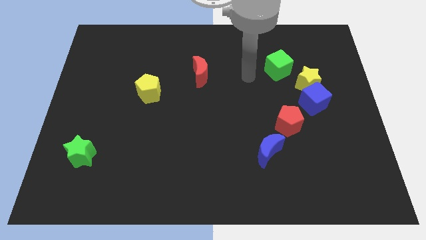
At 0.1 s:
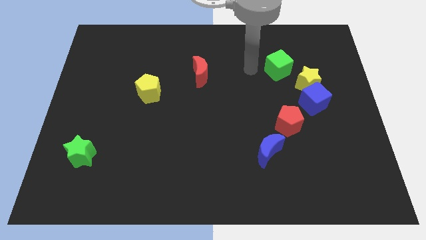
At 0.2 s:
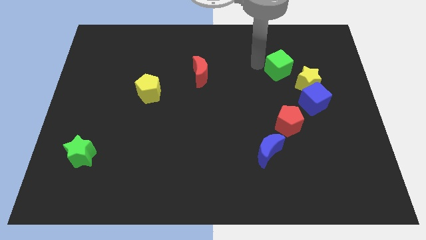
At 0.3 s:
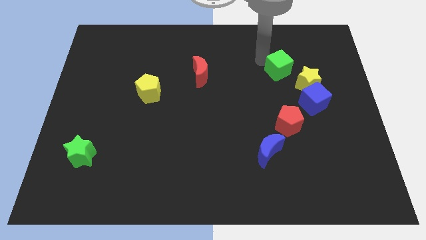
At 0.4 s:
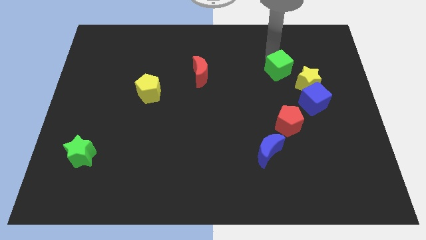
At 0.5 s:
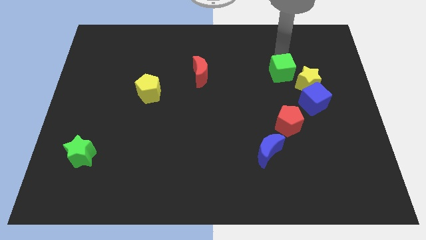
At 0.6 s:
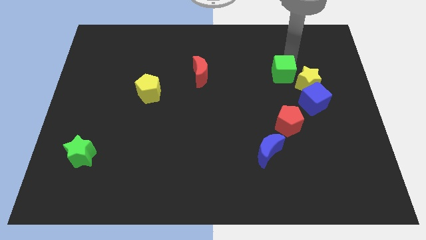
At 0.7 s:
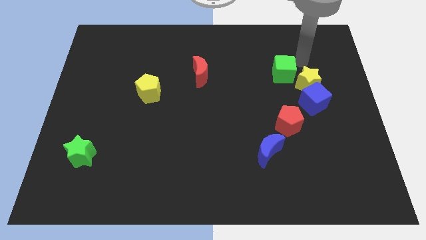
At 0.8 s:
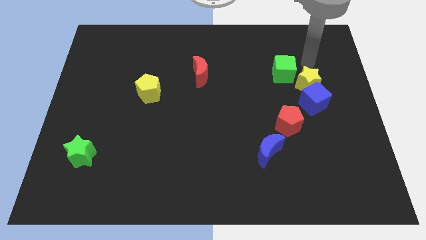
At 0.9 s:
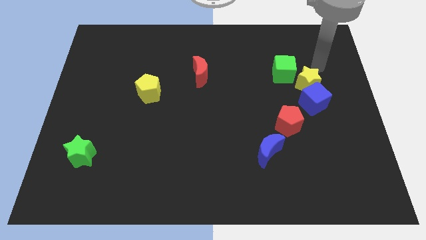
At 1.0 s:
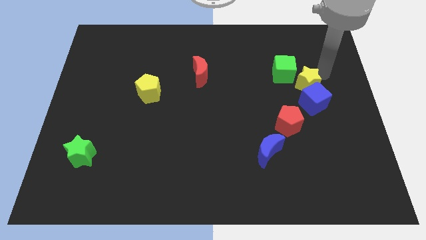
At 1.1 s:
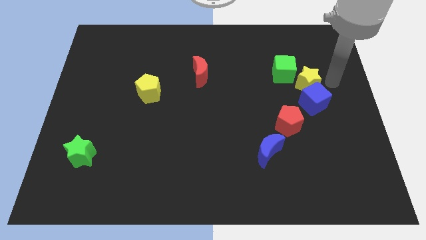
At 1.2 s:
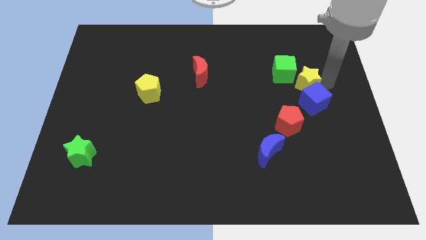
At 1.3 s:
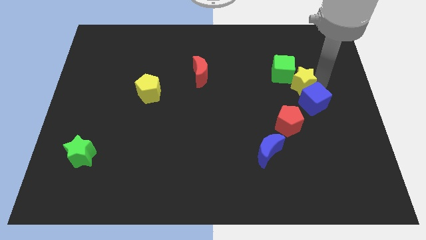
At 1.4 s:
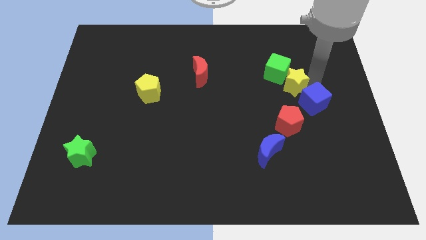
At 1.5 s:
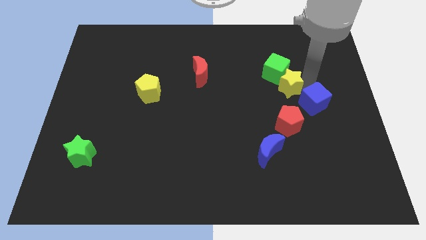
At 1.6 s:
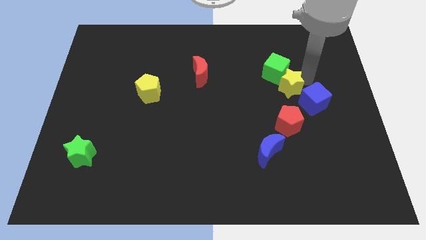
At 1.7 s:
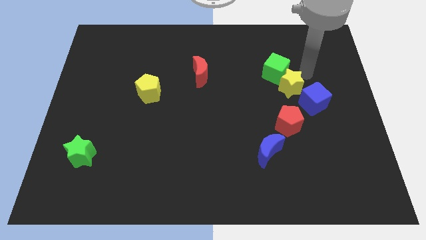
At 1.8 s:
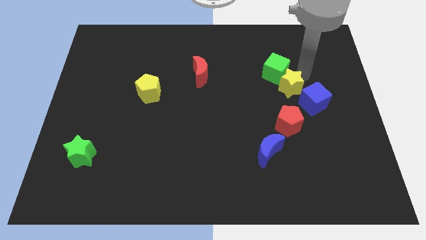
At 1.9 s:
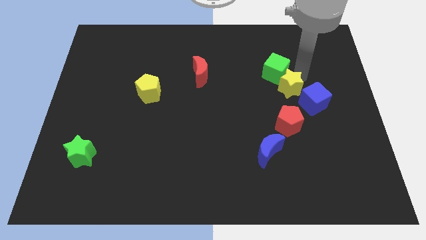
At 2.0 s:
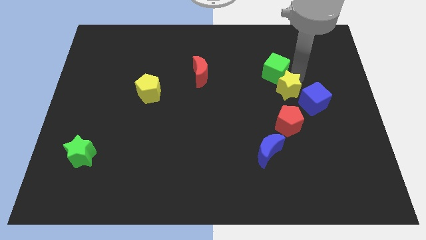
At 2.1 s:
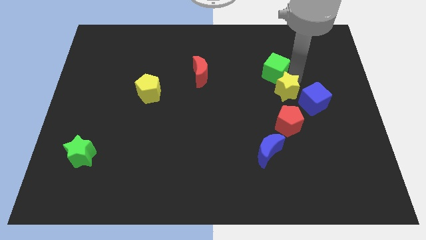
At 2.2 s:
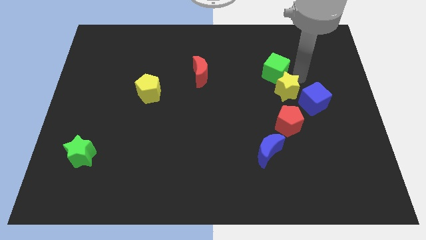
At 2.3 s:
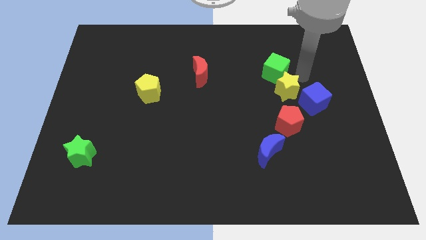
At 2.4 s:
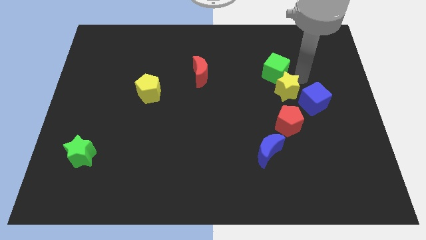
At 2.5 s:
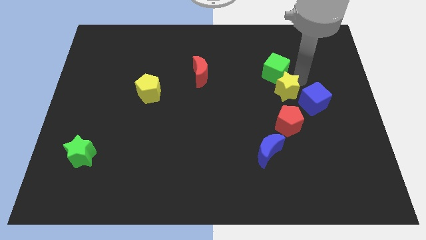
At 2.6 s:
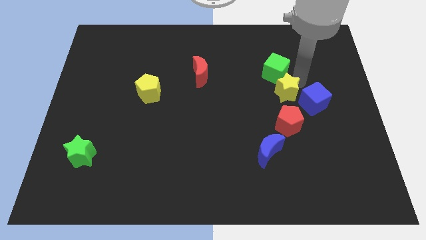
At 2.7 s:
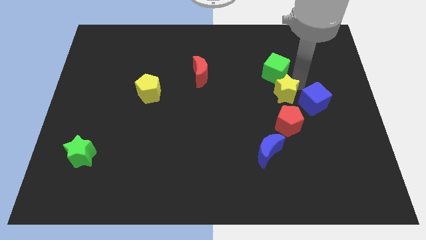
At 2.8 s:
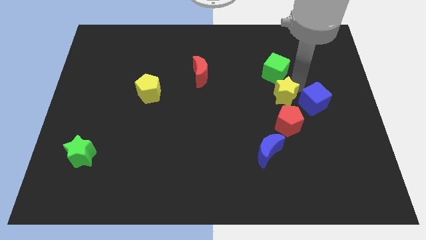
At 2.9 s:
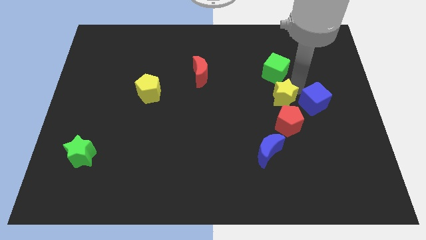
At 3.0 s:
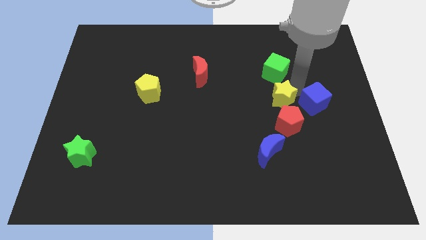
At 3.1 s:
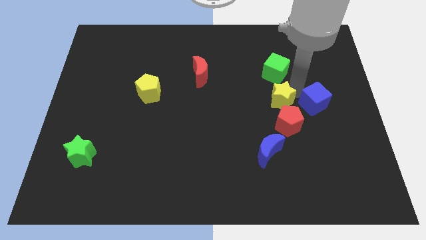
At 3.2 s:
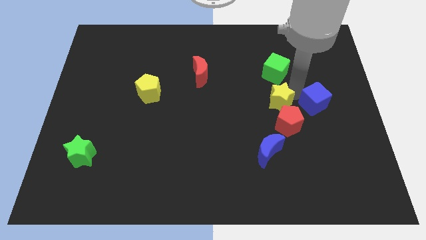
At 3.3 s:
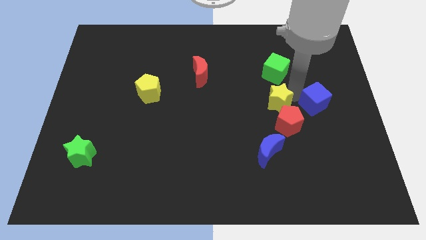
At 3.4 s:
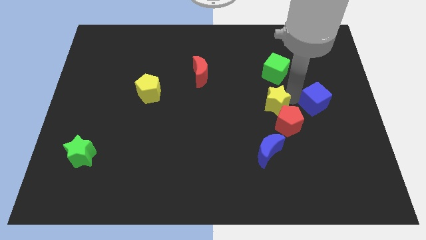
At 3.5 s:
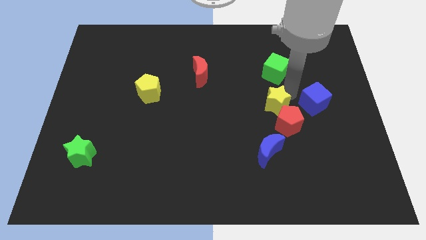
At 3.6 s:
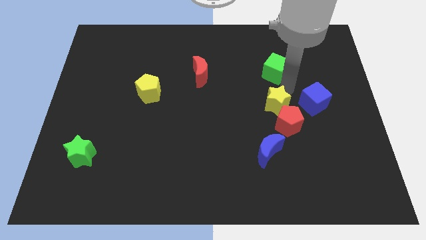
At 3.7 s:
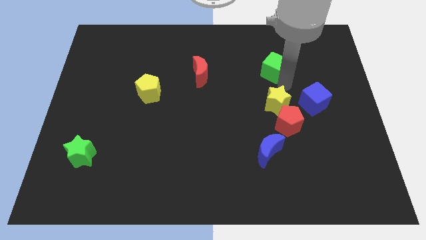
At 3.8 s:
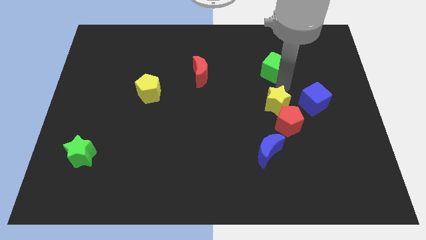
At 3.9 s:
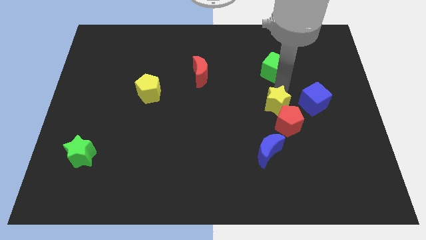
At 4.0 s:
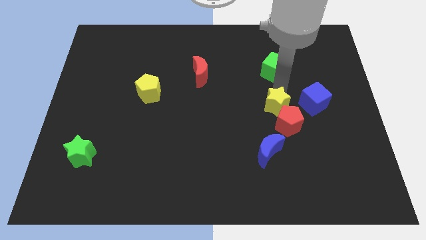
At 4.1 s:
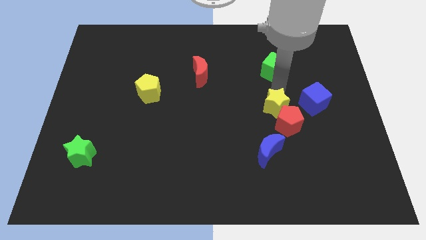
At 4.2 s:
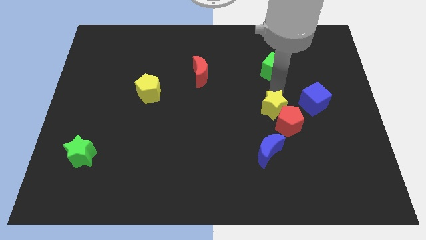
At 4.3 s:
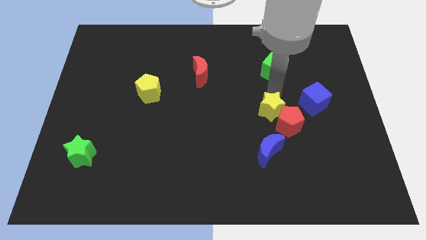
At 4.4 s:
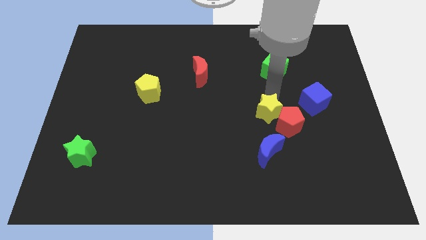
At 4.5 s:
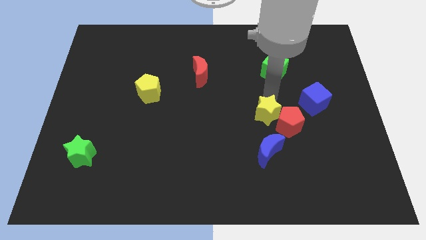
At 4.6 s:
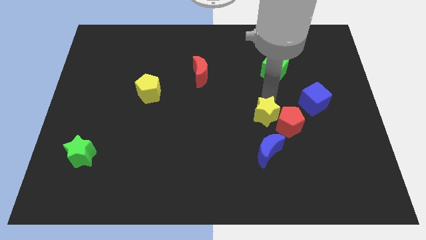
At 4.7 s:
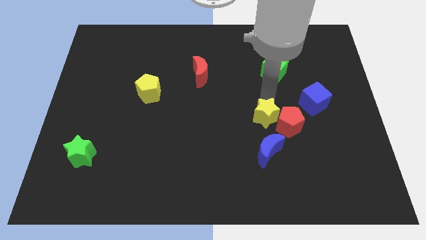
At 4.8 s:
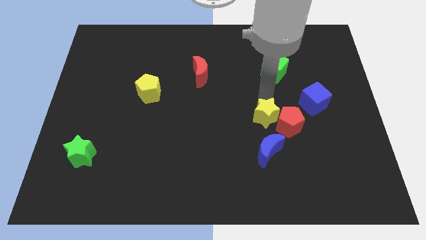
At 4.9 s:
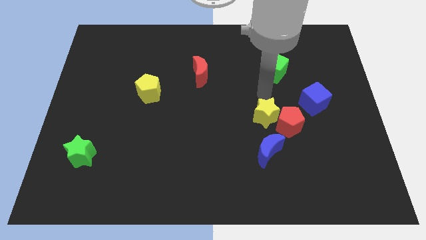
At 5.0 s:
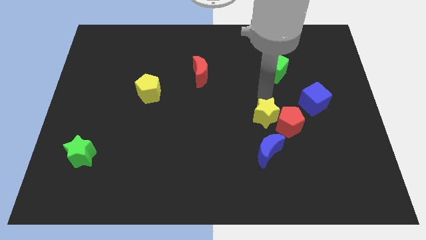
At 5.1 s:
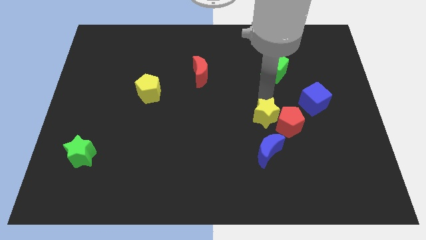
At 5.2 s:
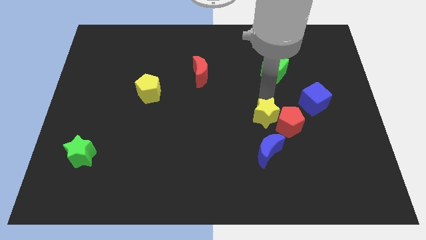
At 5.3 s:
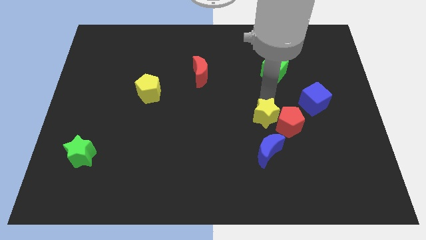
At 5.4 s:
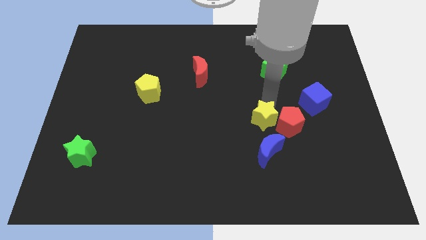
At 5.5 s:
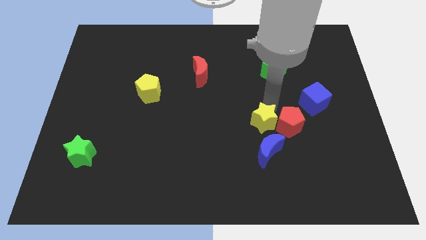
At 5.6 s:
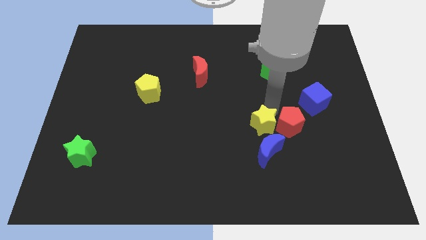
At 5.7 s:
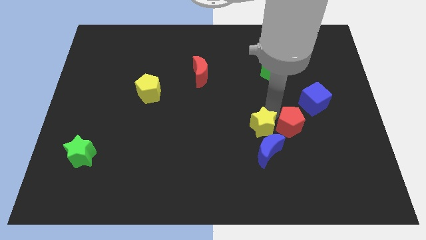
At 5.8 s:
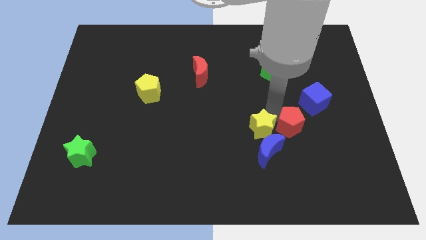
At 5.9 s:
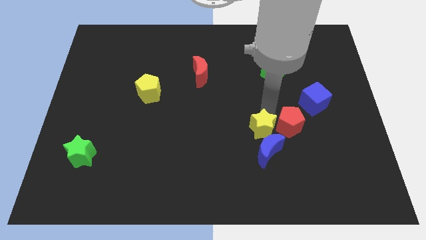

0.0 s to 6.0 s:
slide the yellow star to the blue moon

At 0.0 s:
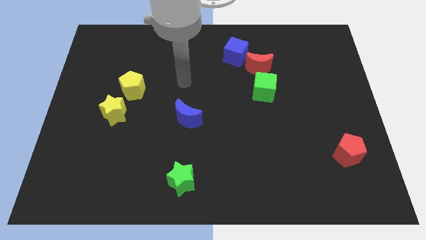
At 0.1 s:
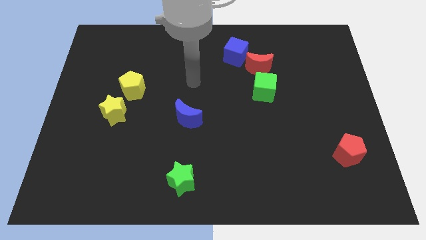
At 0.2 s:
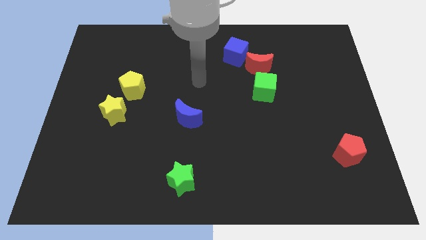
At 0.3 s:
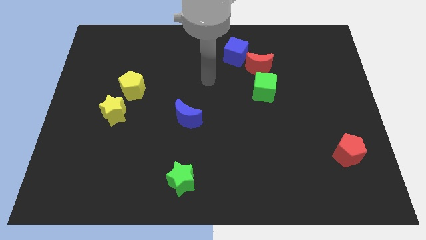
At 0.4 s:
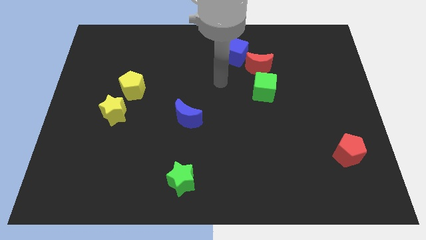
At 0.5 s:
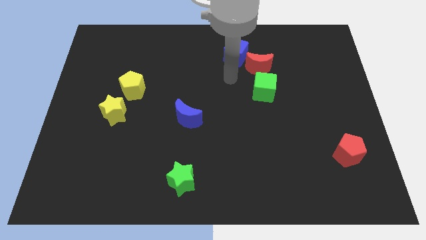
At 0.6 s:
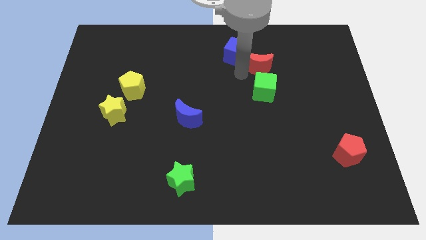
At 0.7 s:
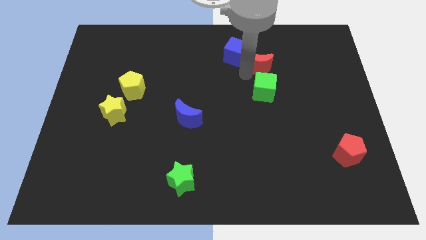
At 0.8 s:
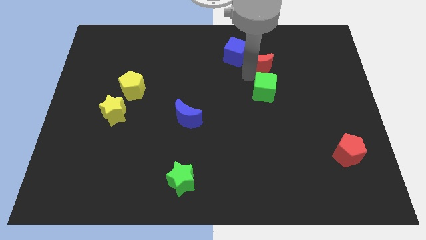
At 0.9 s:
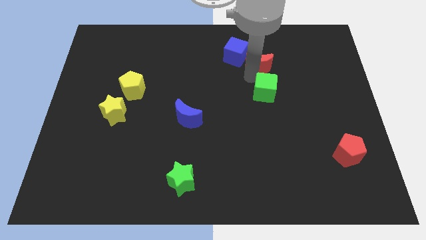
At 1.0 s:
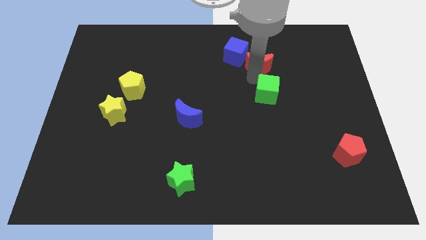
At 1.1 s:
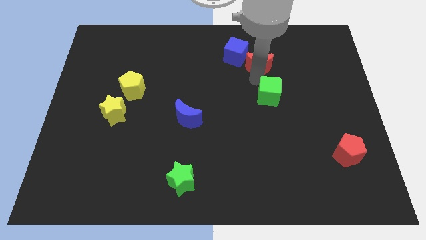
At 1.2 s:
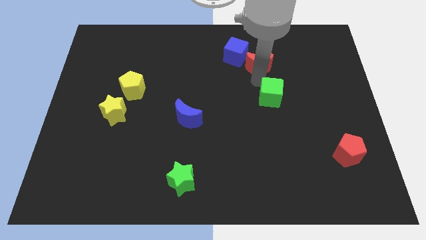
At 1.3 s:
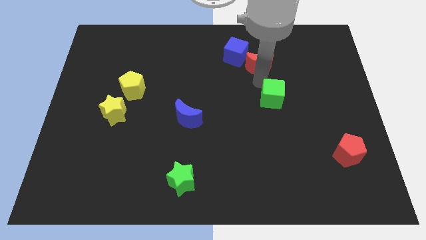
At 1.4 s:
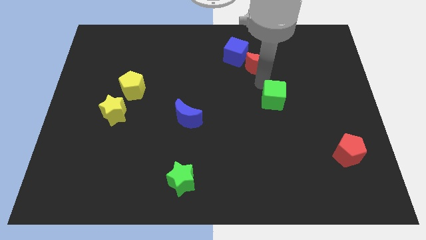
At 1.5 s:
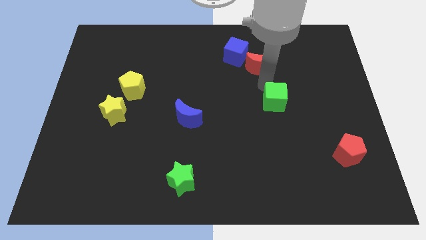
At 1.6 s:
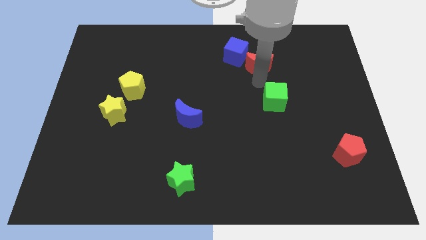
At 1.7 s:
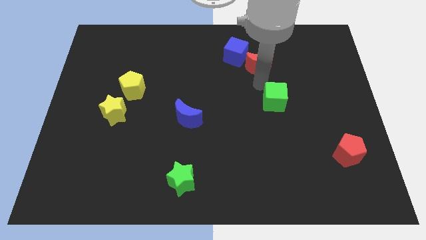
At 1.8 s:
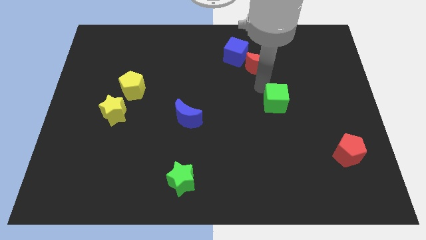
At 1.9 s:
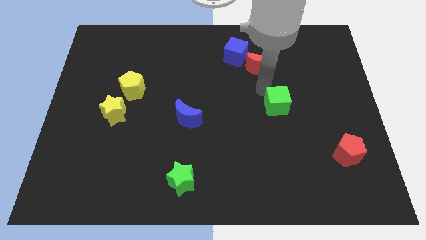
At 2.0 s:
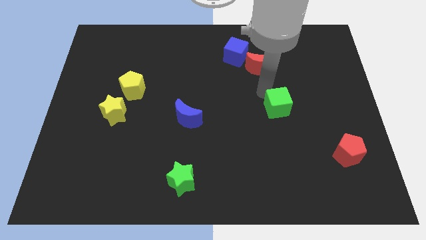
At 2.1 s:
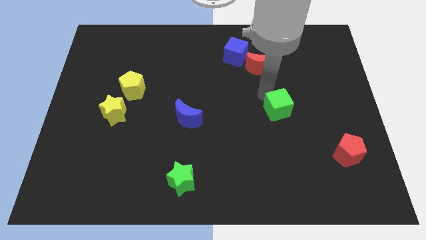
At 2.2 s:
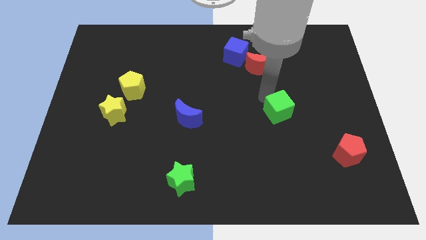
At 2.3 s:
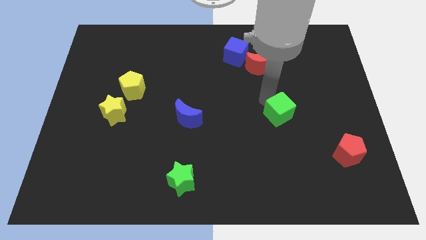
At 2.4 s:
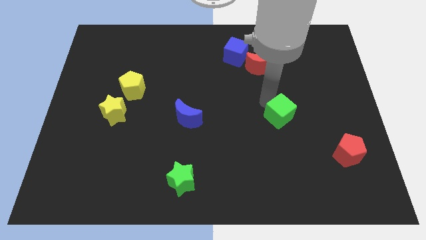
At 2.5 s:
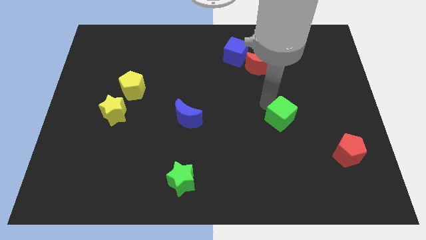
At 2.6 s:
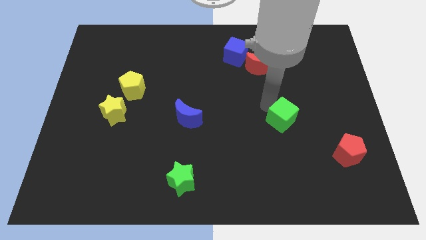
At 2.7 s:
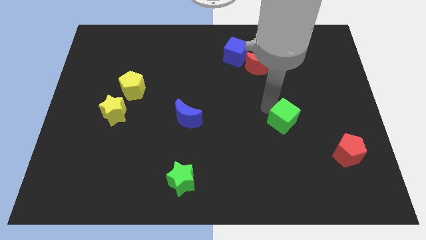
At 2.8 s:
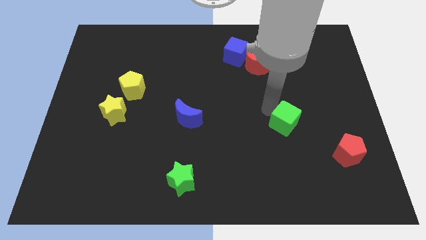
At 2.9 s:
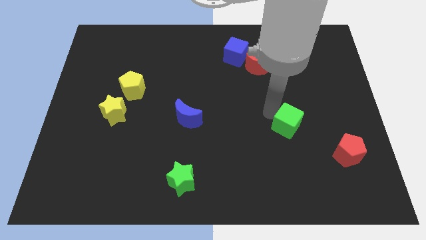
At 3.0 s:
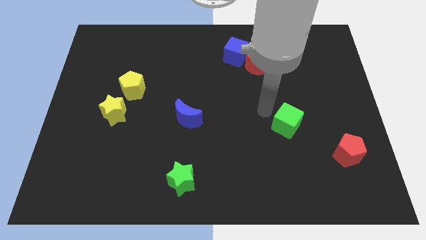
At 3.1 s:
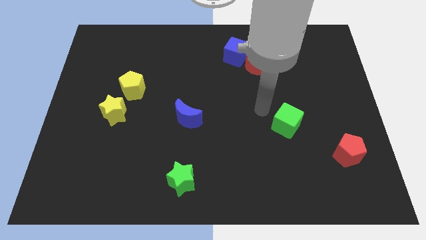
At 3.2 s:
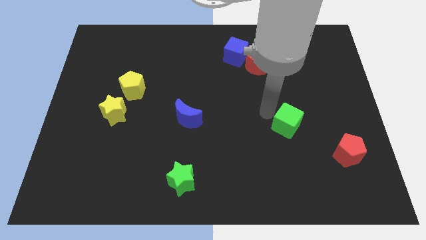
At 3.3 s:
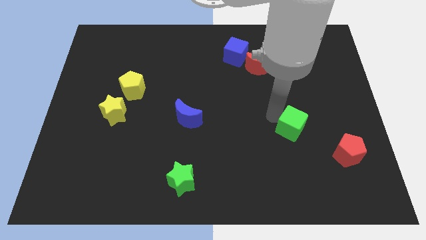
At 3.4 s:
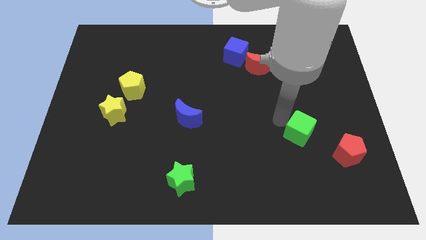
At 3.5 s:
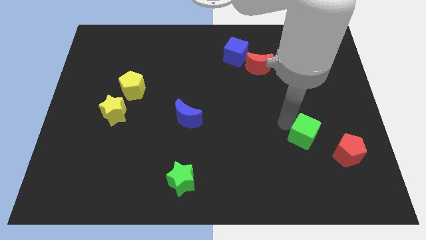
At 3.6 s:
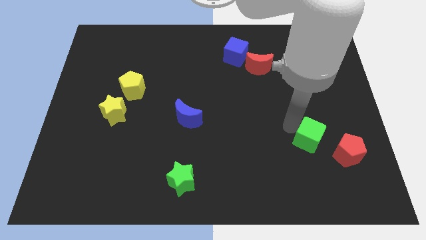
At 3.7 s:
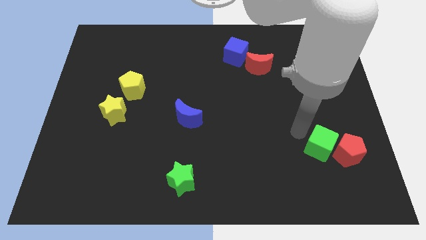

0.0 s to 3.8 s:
put the green cube close to the red pentagon
